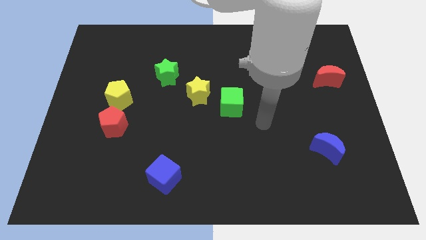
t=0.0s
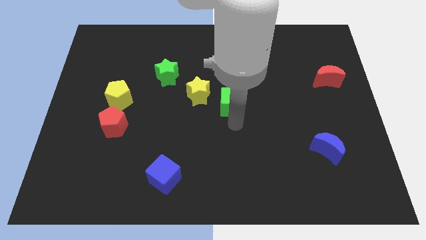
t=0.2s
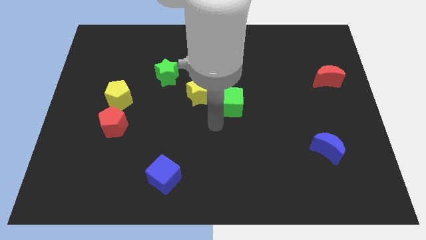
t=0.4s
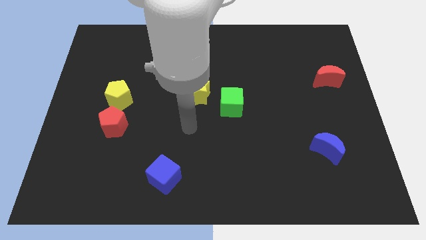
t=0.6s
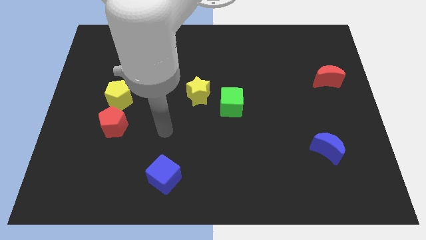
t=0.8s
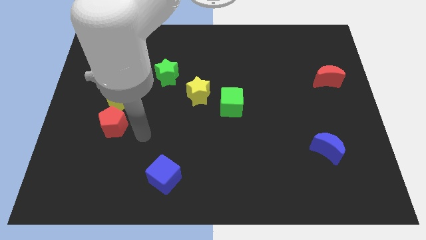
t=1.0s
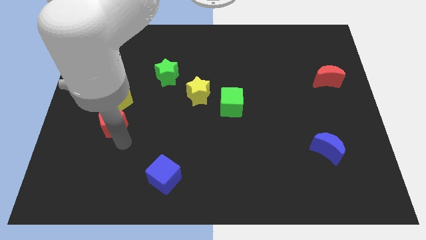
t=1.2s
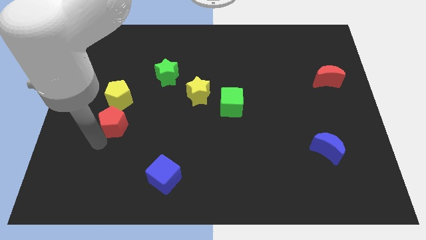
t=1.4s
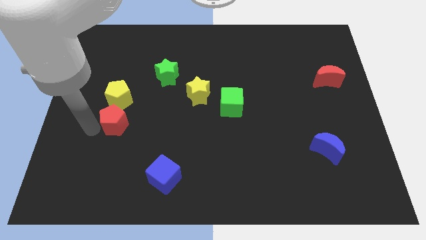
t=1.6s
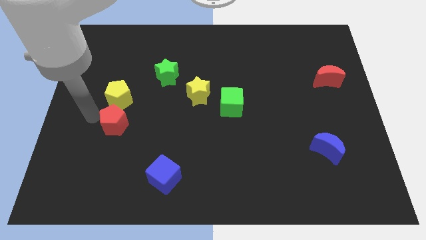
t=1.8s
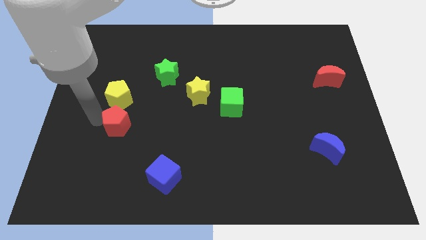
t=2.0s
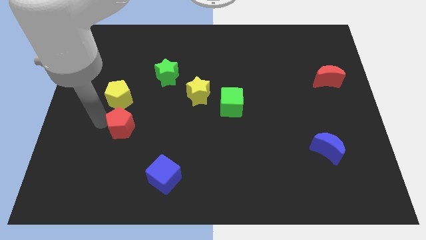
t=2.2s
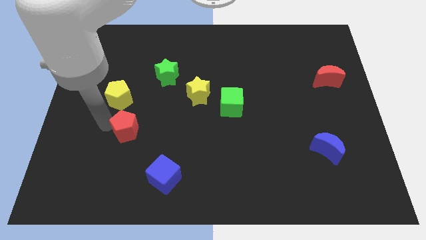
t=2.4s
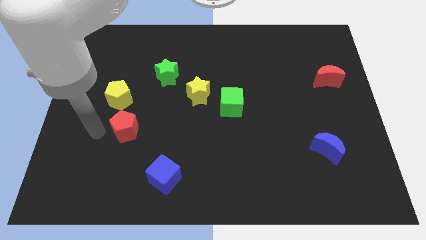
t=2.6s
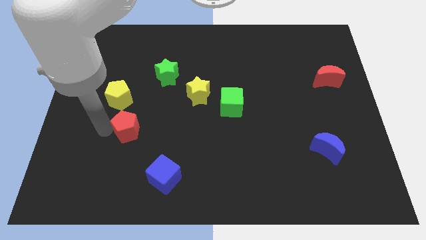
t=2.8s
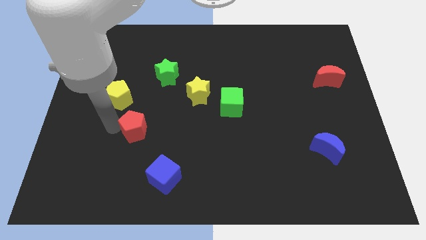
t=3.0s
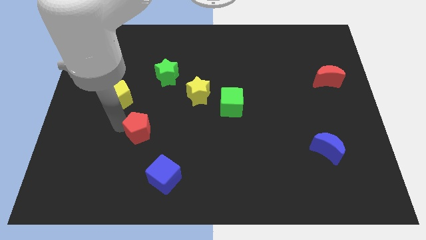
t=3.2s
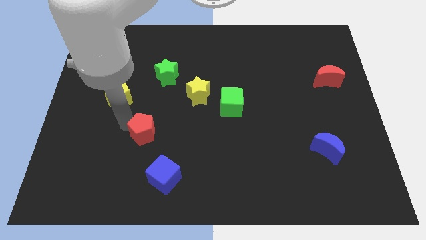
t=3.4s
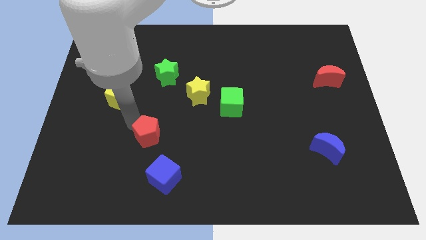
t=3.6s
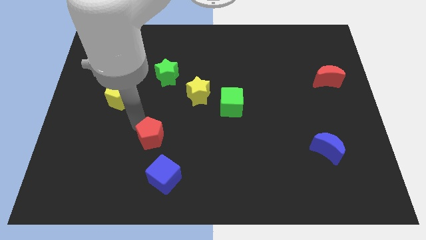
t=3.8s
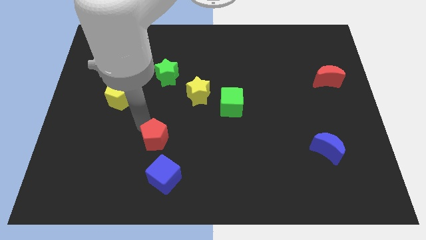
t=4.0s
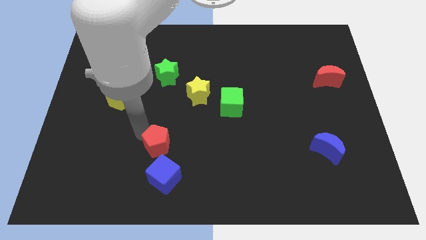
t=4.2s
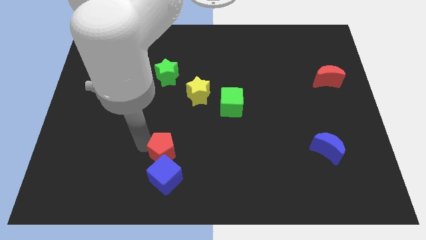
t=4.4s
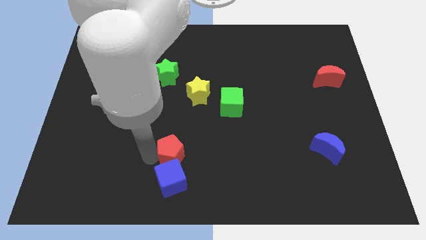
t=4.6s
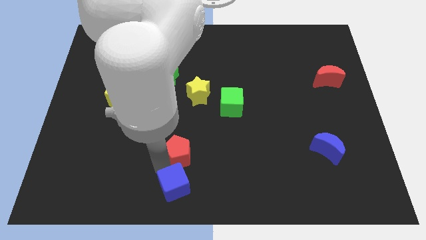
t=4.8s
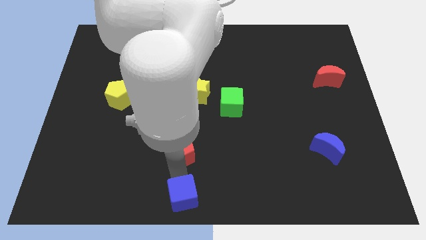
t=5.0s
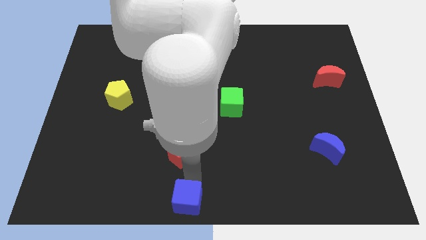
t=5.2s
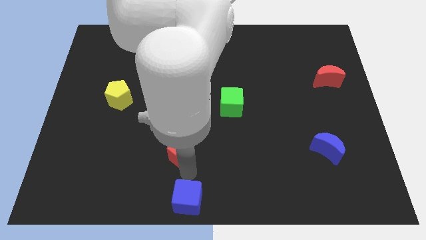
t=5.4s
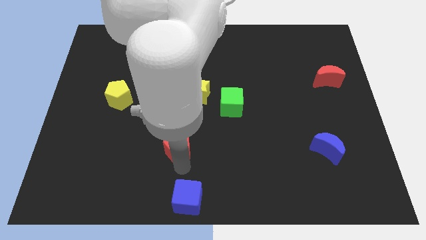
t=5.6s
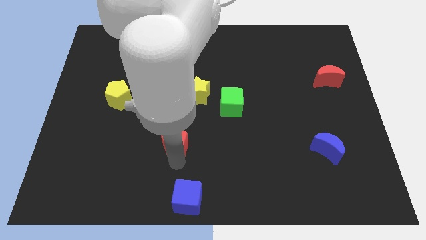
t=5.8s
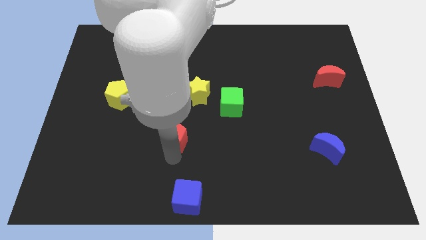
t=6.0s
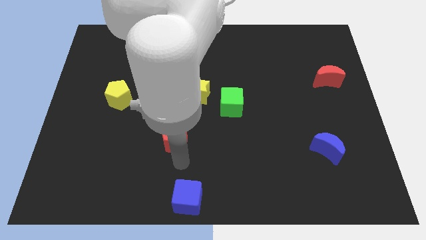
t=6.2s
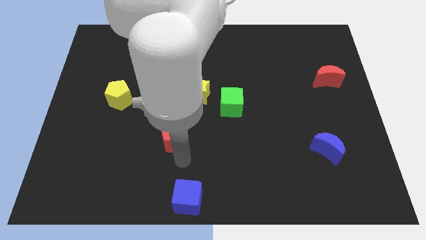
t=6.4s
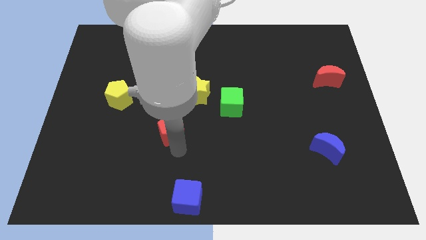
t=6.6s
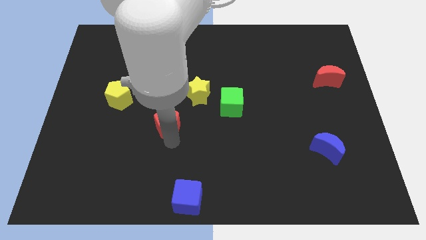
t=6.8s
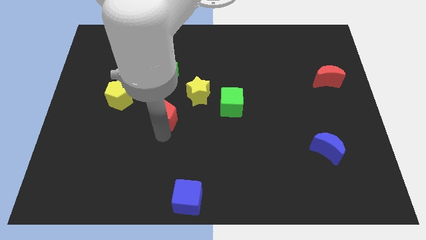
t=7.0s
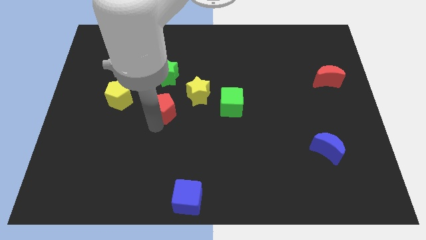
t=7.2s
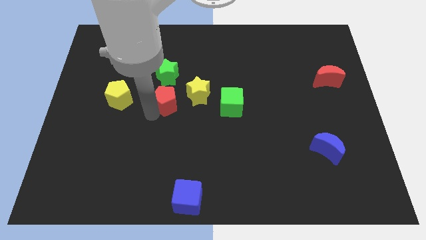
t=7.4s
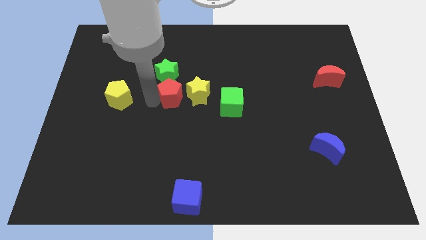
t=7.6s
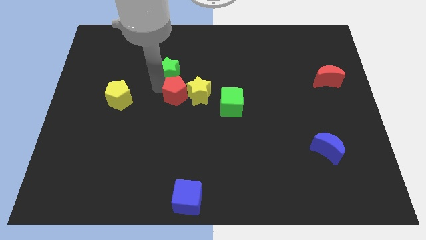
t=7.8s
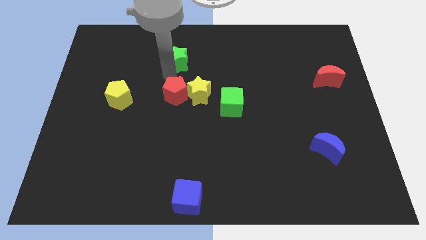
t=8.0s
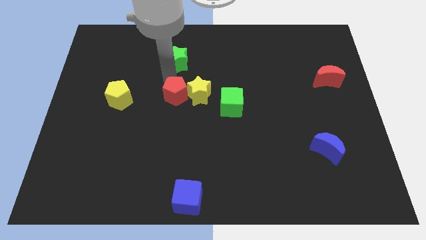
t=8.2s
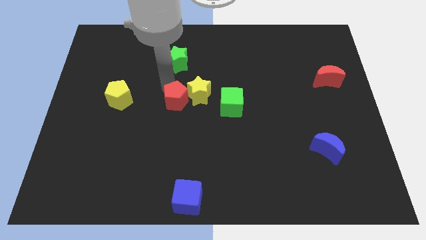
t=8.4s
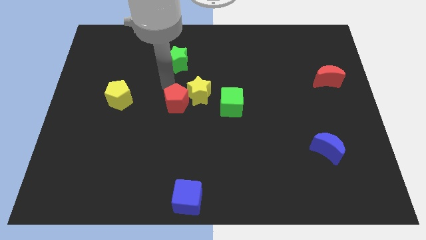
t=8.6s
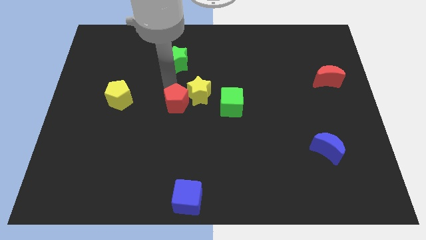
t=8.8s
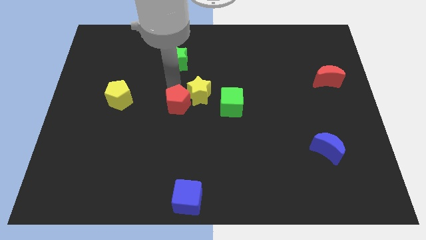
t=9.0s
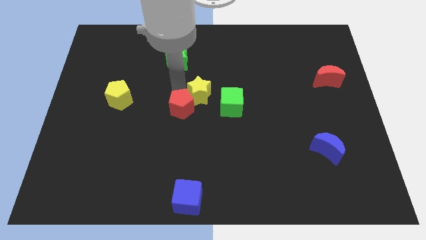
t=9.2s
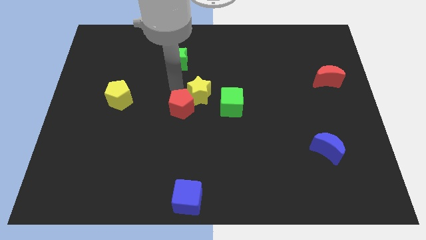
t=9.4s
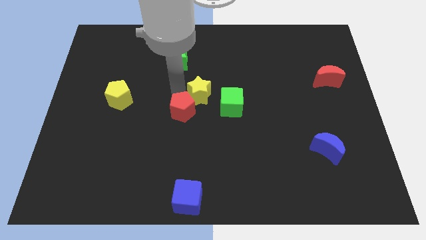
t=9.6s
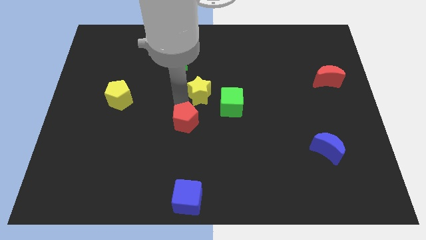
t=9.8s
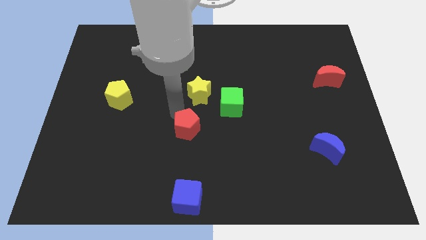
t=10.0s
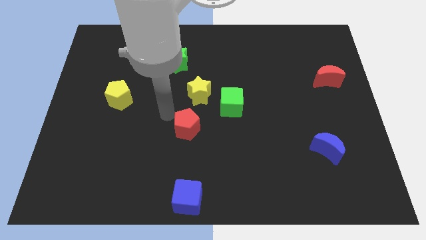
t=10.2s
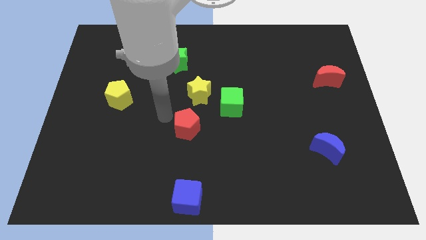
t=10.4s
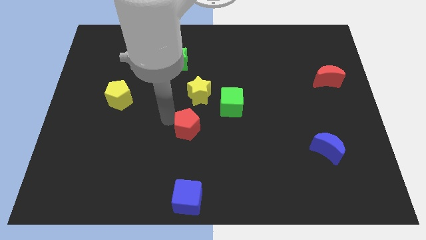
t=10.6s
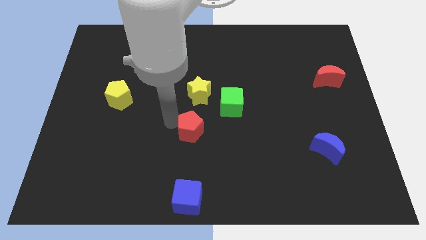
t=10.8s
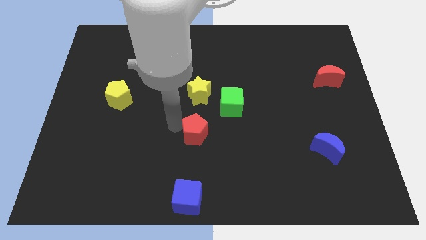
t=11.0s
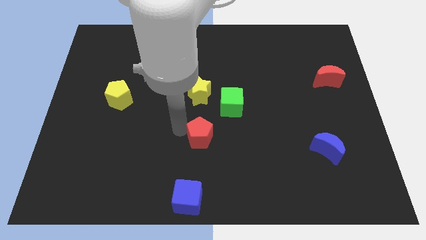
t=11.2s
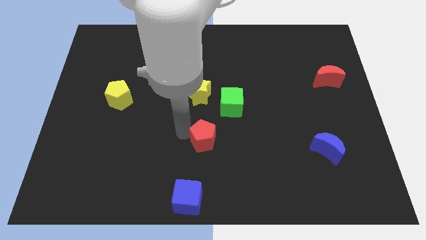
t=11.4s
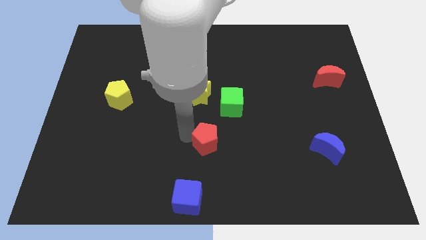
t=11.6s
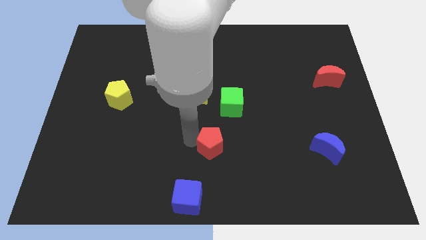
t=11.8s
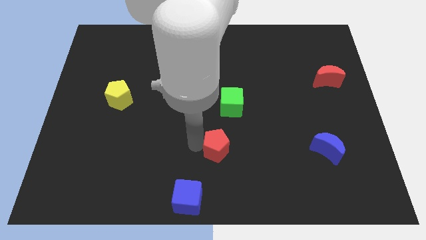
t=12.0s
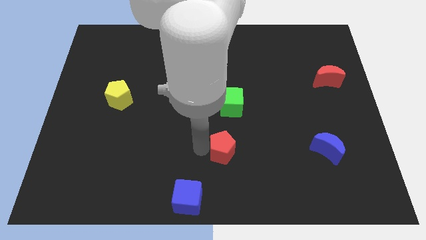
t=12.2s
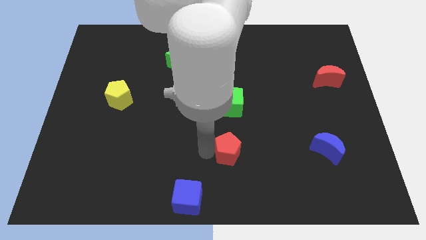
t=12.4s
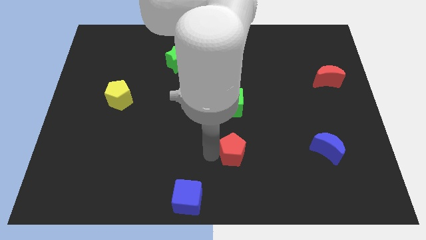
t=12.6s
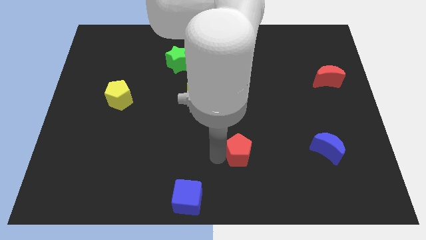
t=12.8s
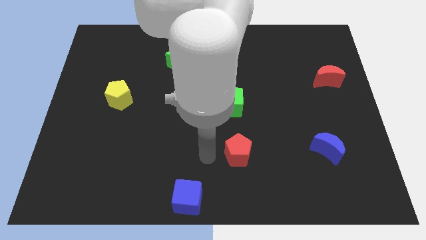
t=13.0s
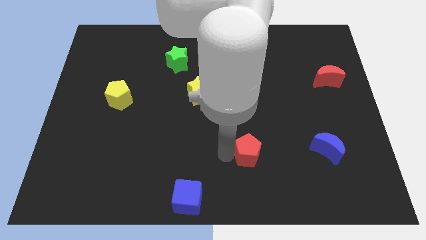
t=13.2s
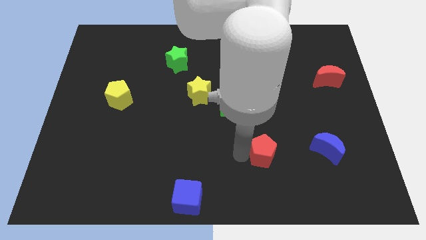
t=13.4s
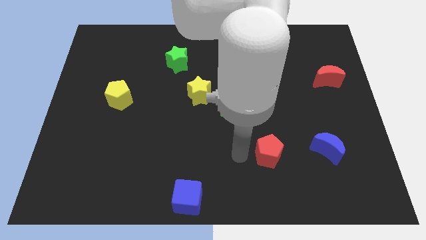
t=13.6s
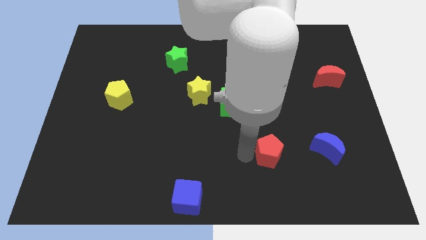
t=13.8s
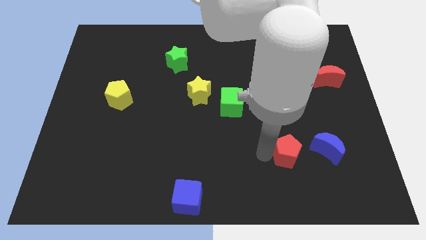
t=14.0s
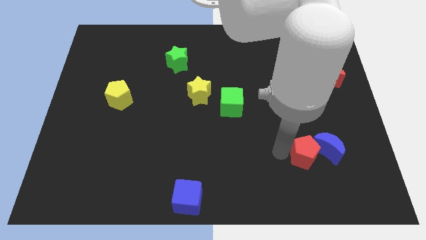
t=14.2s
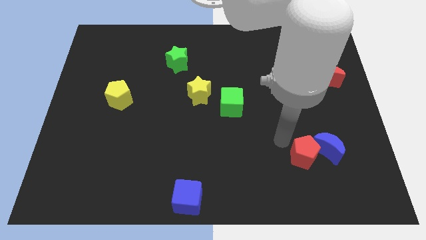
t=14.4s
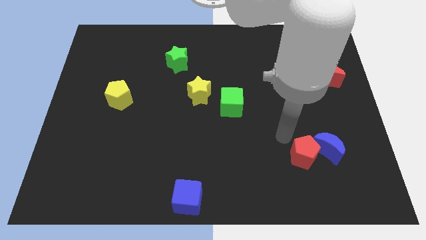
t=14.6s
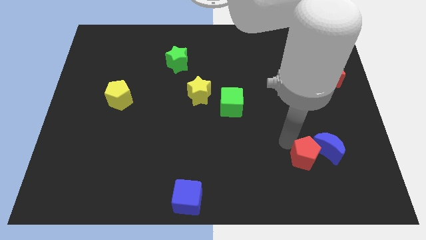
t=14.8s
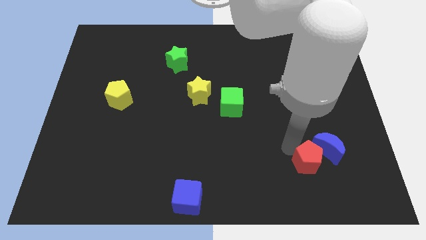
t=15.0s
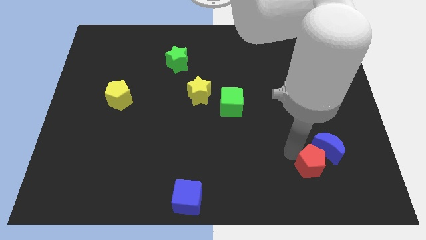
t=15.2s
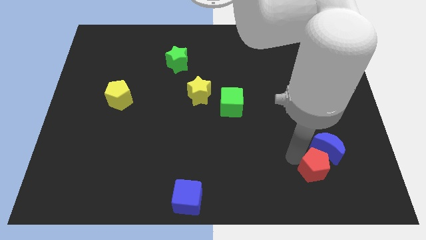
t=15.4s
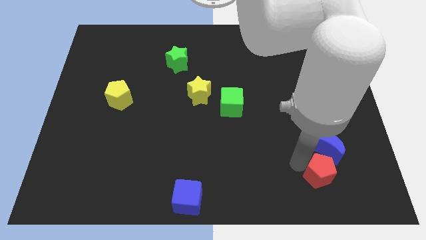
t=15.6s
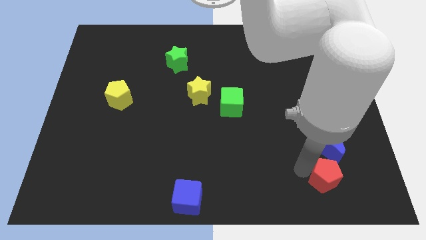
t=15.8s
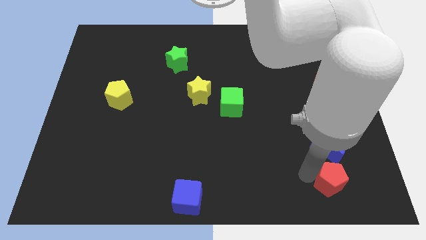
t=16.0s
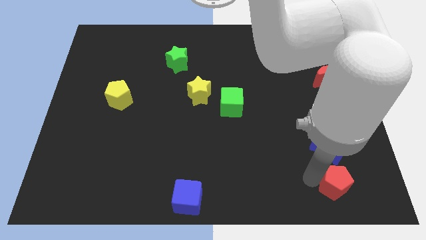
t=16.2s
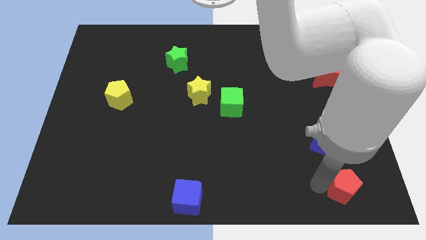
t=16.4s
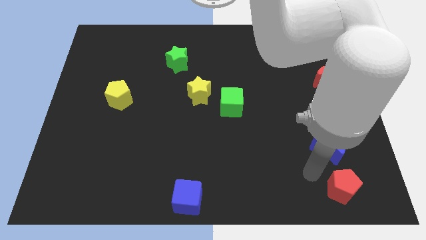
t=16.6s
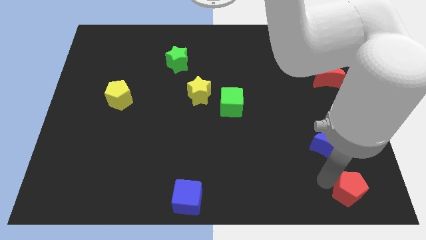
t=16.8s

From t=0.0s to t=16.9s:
slide the red pentagon to the bottom right
